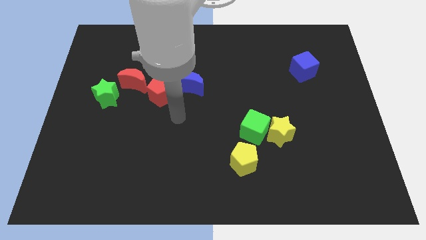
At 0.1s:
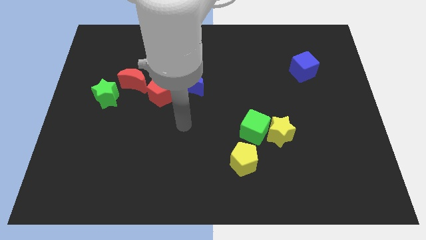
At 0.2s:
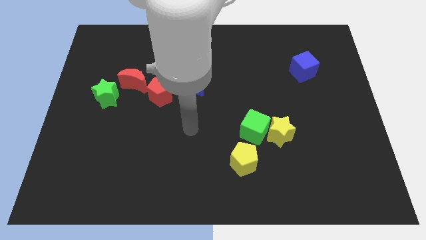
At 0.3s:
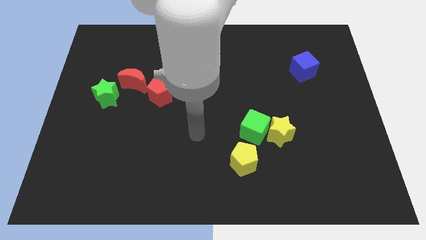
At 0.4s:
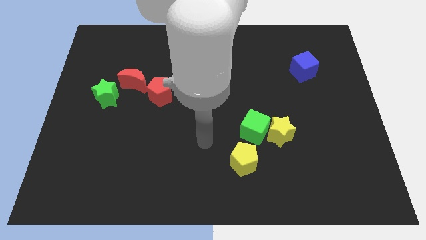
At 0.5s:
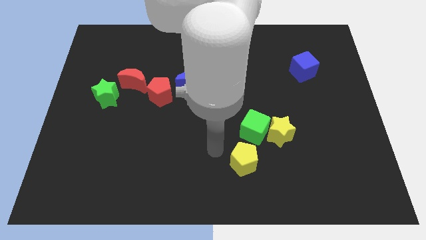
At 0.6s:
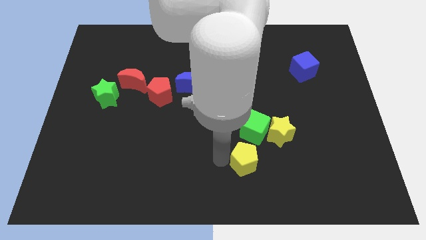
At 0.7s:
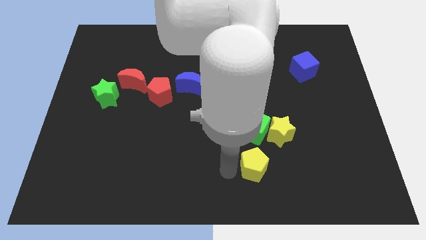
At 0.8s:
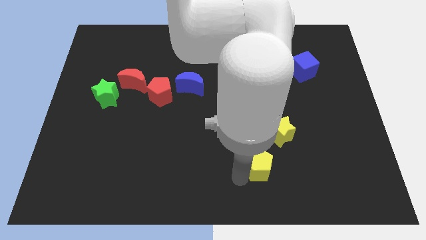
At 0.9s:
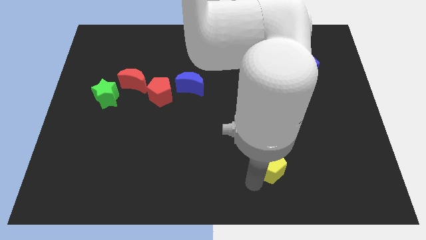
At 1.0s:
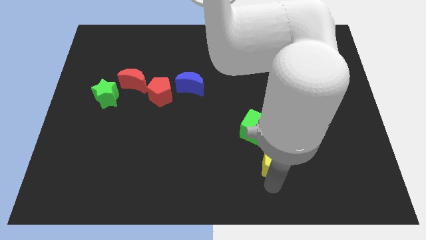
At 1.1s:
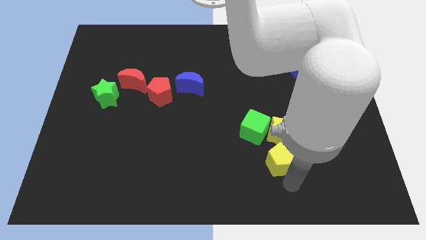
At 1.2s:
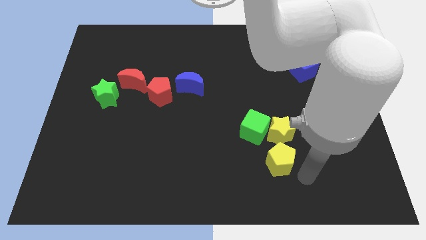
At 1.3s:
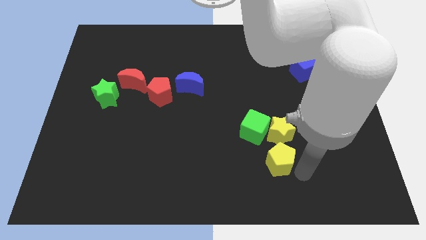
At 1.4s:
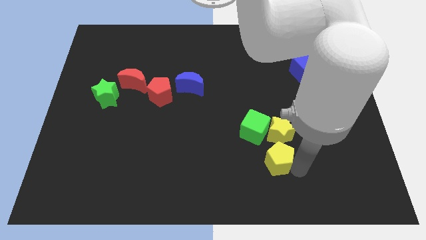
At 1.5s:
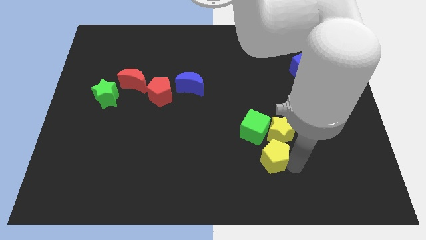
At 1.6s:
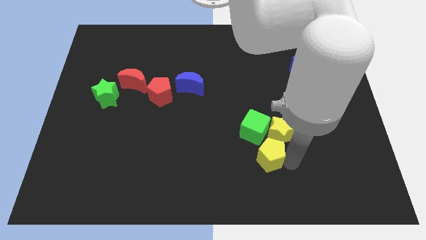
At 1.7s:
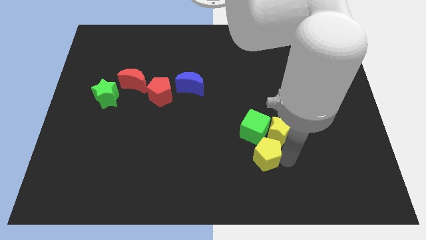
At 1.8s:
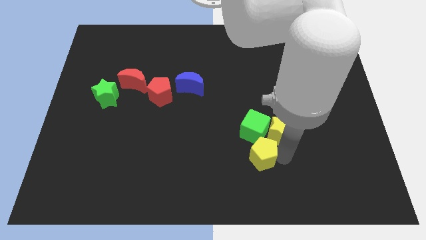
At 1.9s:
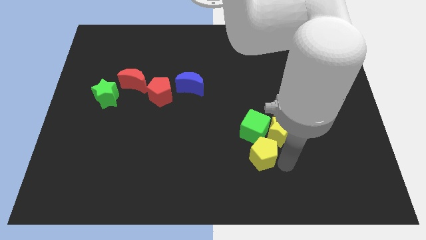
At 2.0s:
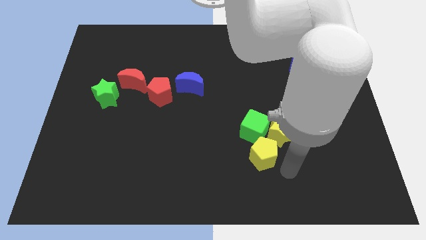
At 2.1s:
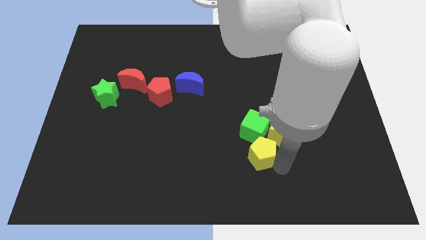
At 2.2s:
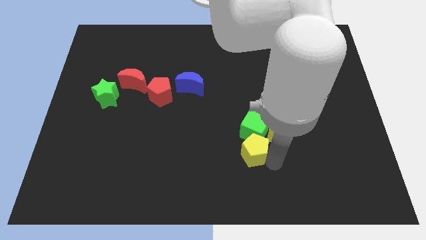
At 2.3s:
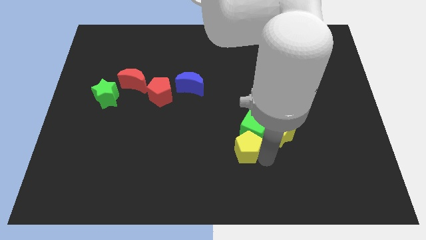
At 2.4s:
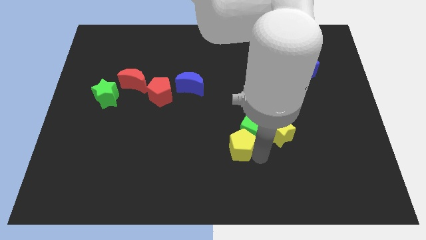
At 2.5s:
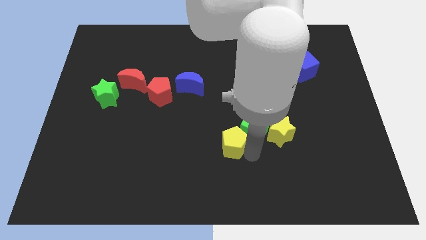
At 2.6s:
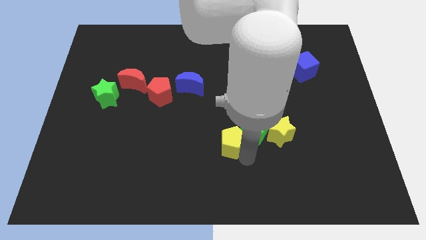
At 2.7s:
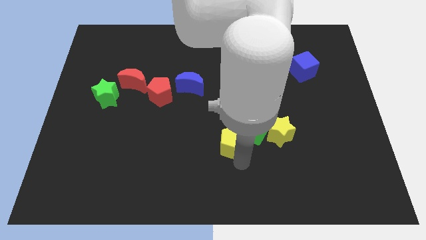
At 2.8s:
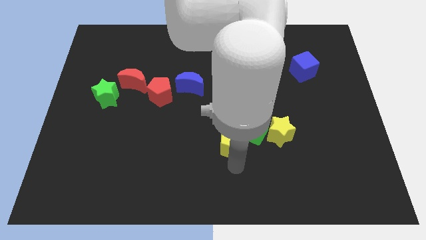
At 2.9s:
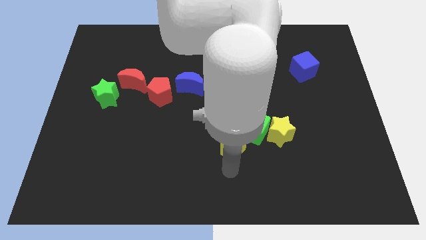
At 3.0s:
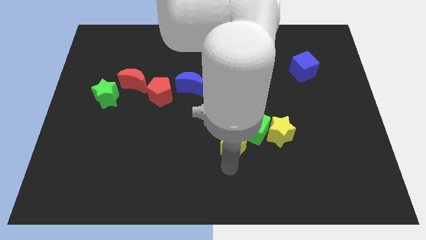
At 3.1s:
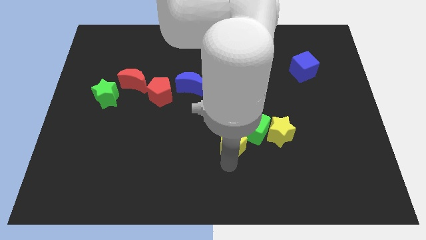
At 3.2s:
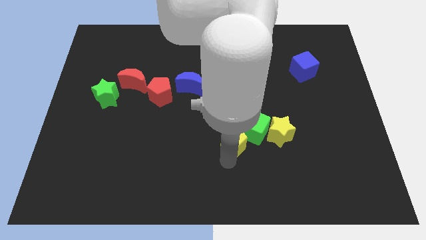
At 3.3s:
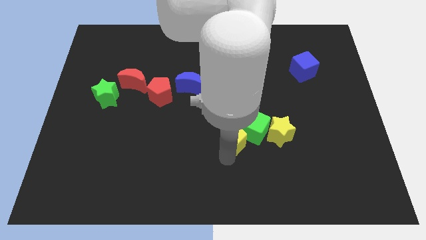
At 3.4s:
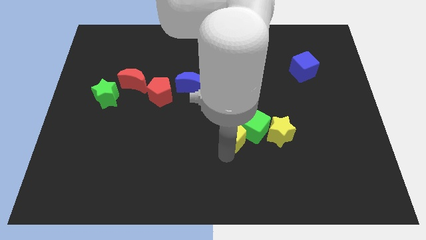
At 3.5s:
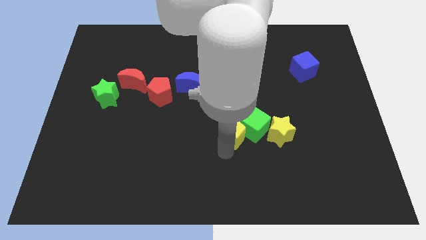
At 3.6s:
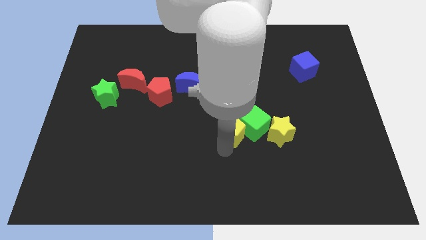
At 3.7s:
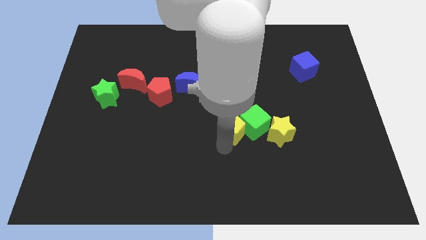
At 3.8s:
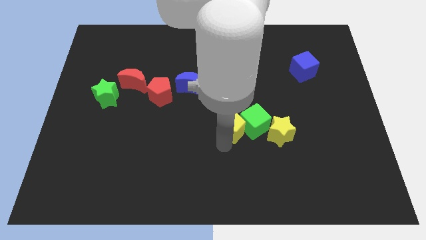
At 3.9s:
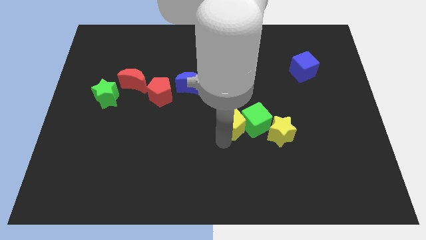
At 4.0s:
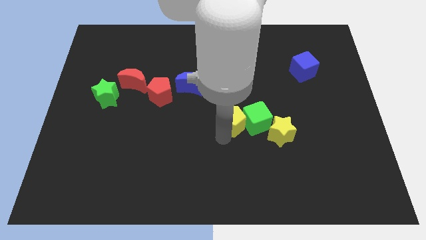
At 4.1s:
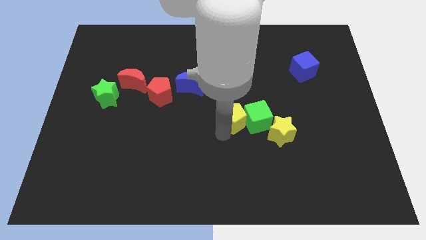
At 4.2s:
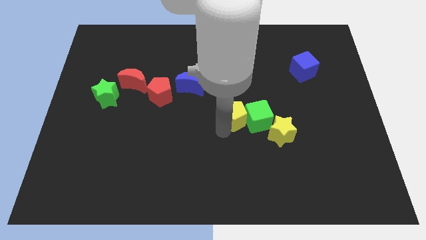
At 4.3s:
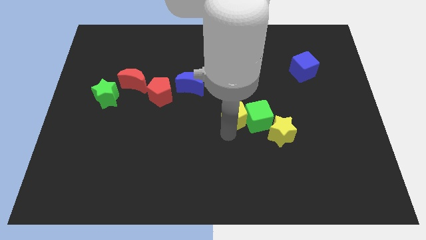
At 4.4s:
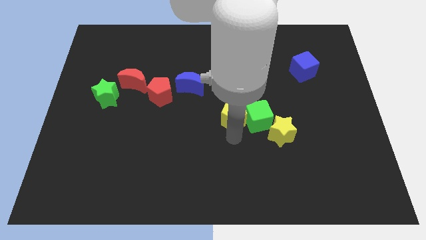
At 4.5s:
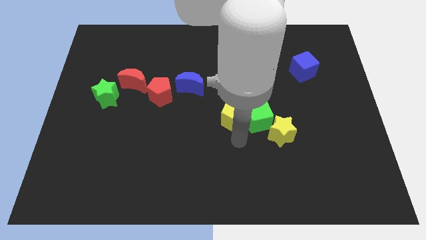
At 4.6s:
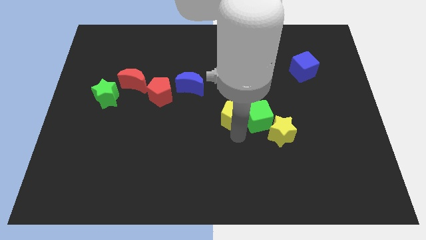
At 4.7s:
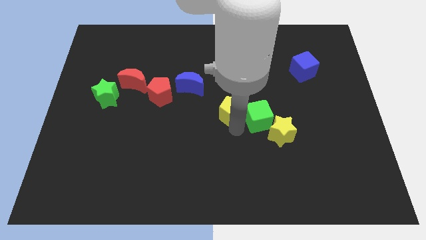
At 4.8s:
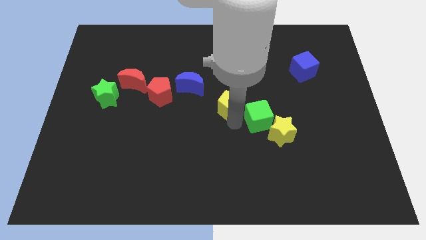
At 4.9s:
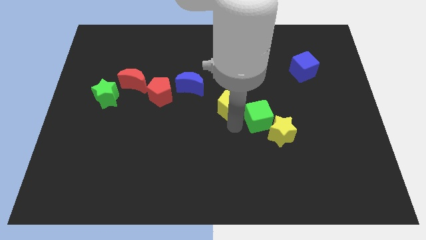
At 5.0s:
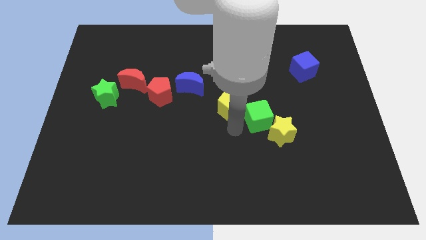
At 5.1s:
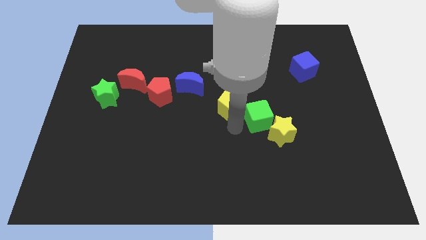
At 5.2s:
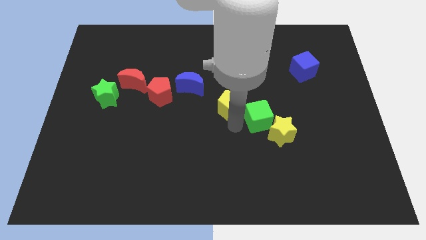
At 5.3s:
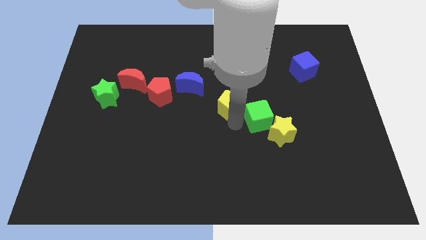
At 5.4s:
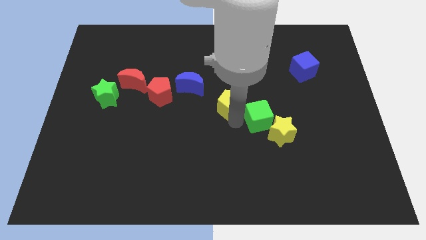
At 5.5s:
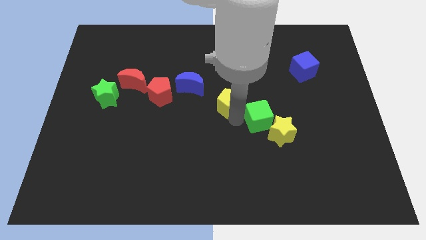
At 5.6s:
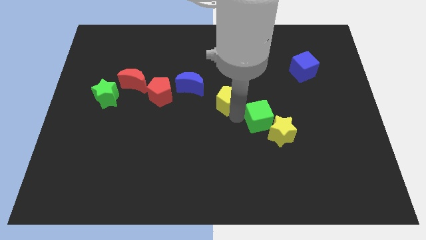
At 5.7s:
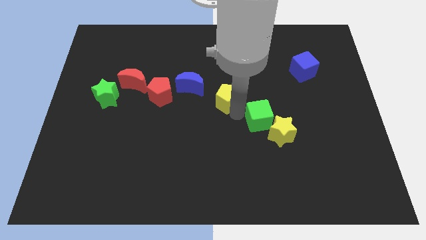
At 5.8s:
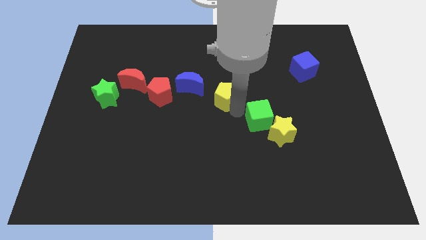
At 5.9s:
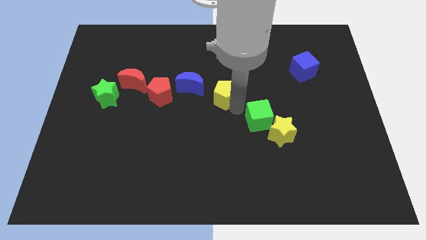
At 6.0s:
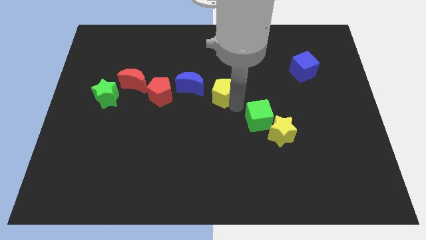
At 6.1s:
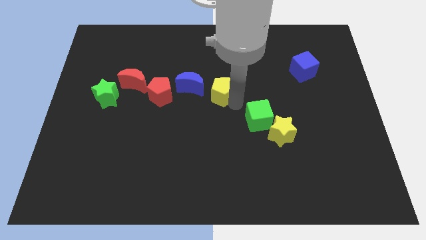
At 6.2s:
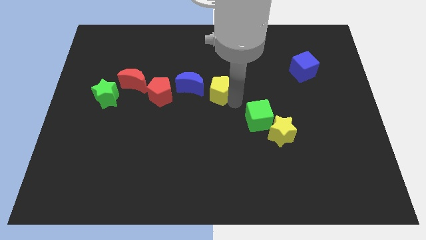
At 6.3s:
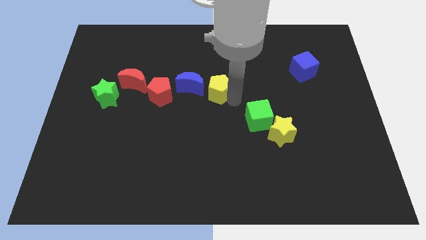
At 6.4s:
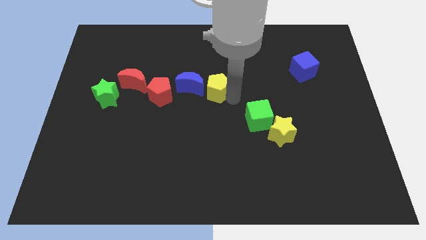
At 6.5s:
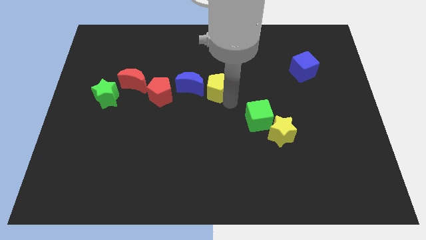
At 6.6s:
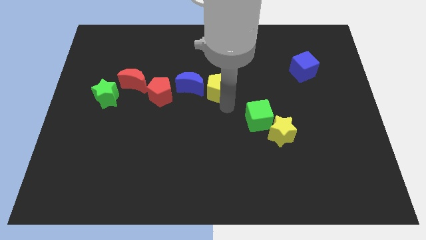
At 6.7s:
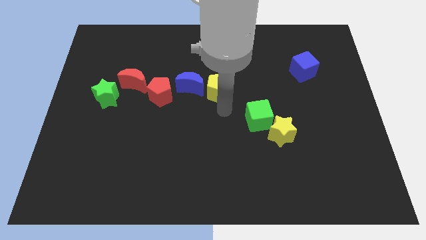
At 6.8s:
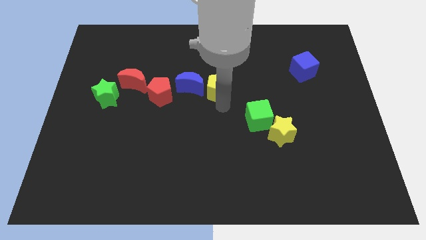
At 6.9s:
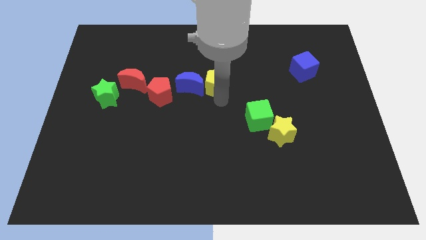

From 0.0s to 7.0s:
push the yellow pentagon to the top right of the blue moon

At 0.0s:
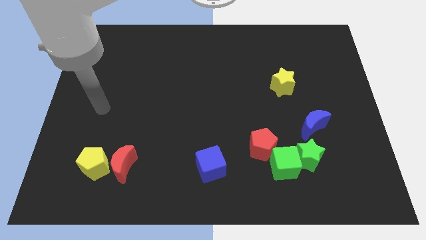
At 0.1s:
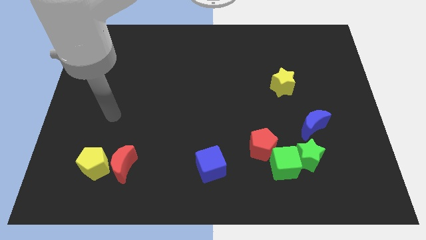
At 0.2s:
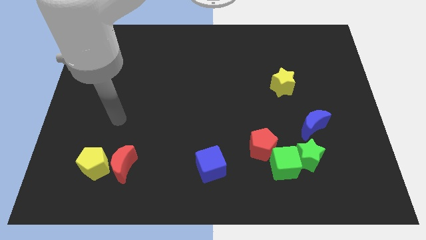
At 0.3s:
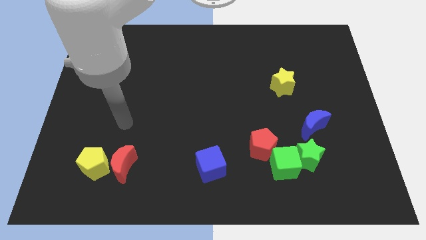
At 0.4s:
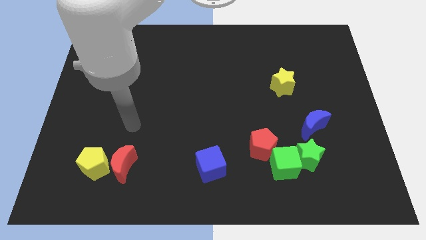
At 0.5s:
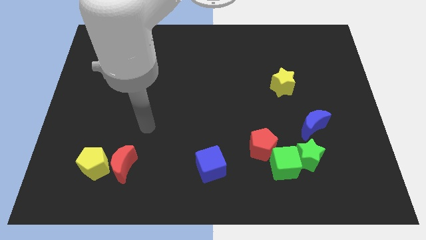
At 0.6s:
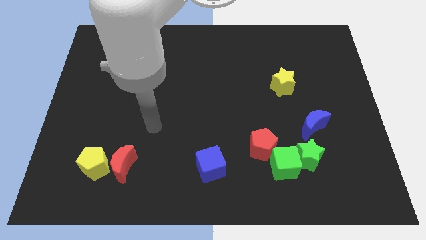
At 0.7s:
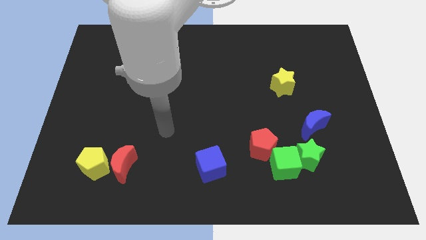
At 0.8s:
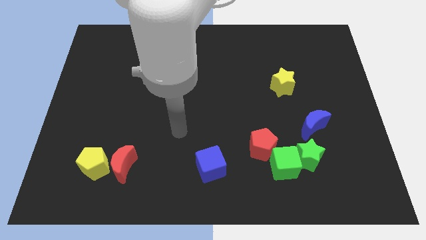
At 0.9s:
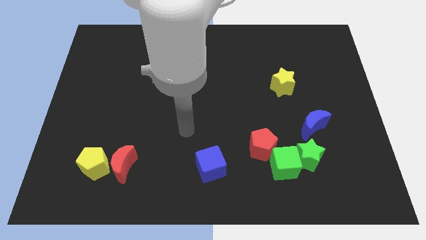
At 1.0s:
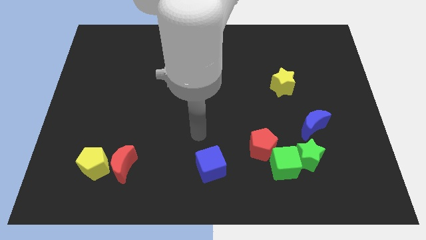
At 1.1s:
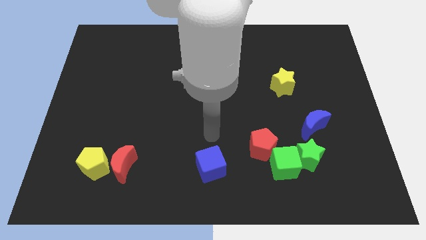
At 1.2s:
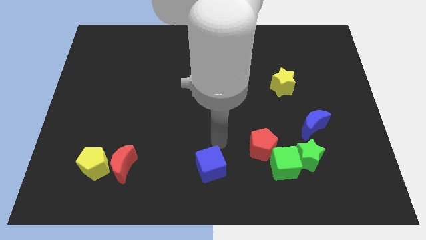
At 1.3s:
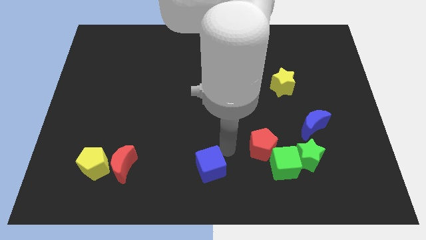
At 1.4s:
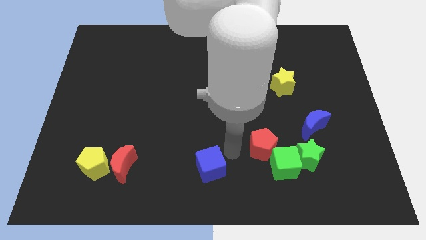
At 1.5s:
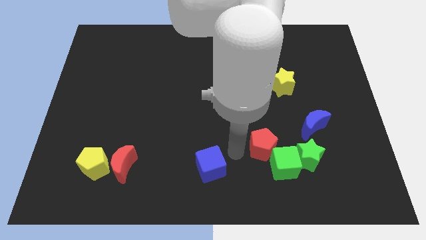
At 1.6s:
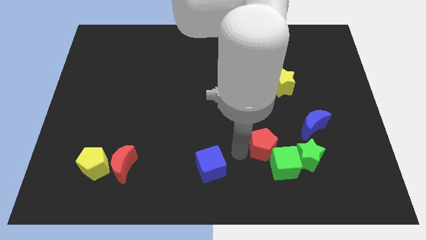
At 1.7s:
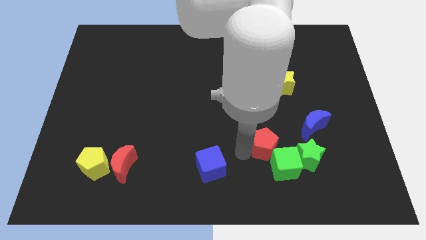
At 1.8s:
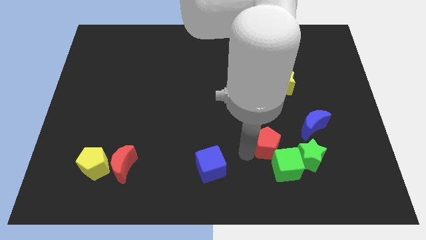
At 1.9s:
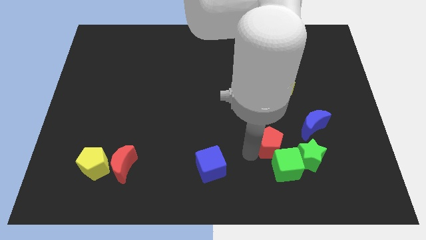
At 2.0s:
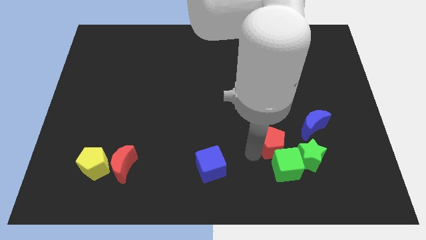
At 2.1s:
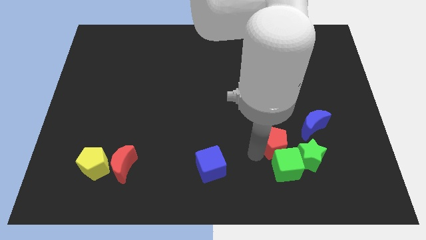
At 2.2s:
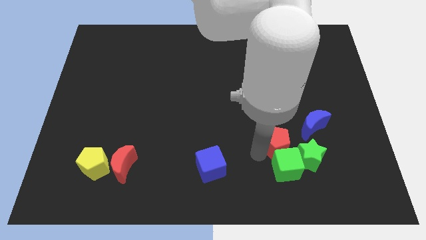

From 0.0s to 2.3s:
slide the red pentagon to the top right of the green cube
